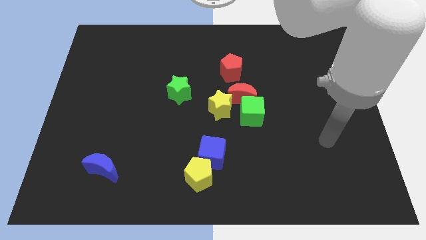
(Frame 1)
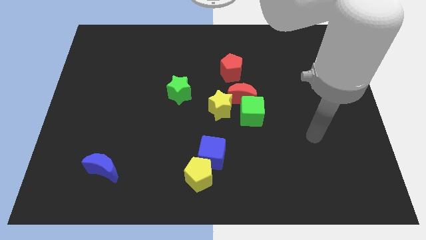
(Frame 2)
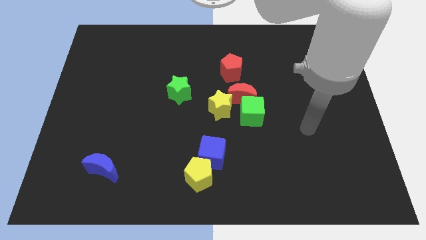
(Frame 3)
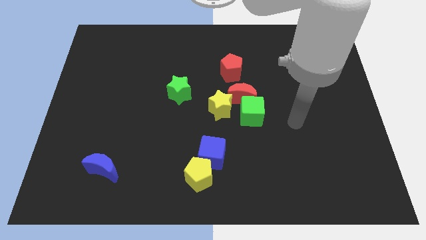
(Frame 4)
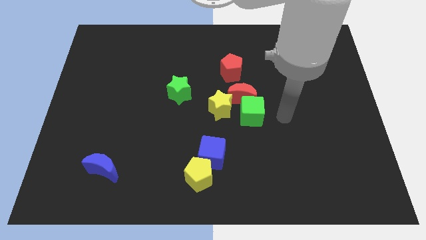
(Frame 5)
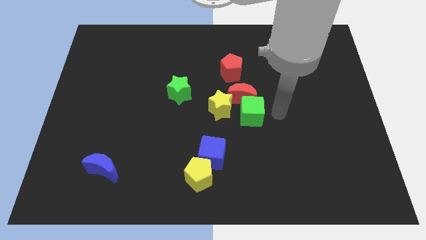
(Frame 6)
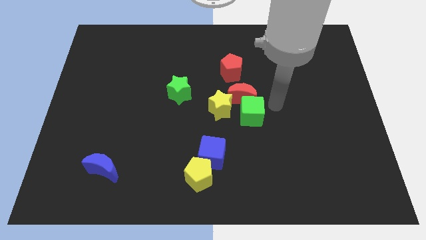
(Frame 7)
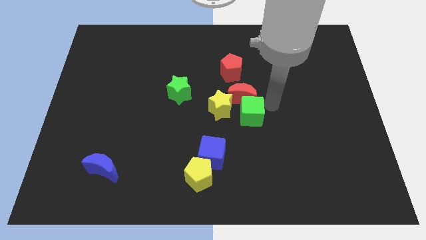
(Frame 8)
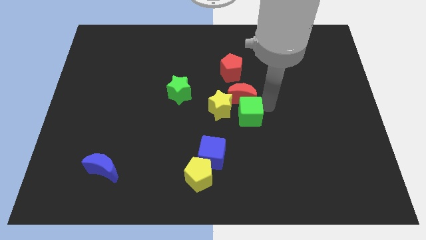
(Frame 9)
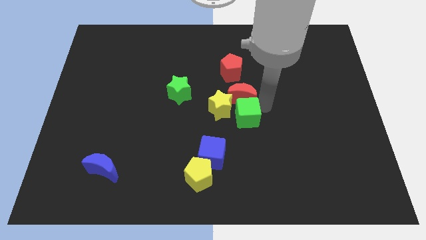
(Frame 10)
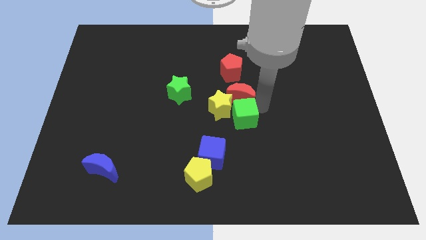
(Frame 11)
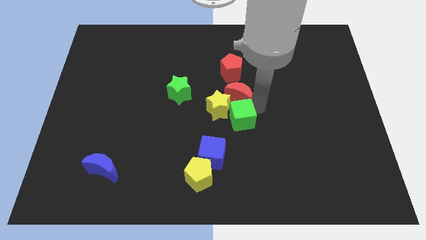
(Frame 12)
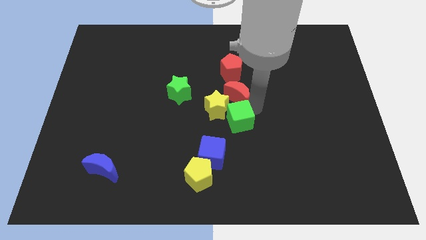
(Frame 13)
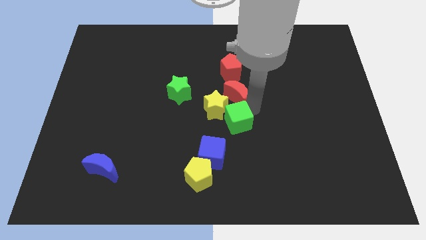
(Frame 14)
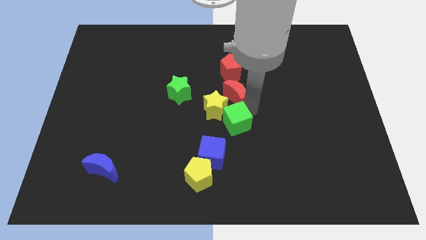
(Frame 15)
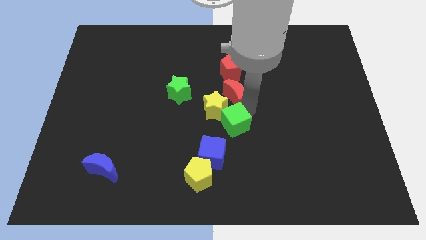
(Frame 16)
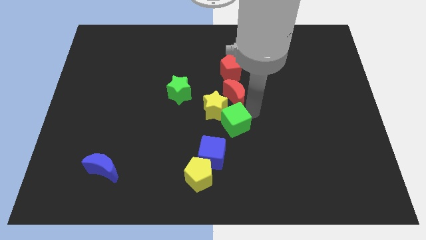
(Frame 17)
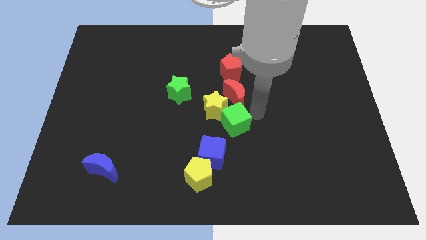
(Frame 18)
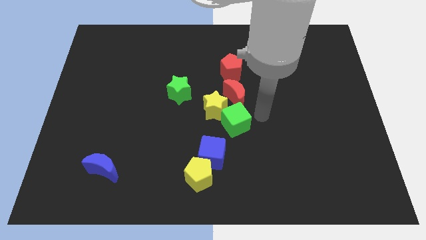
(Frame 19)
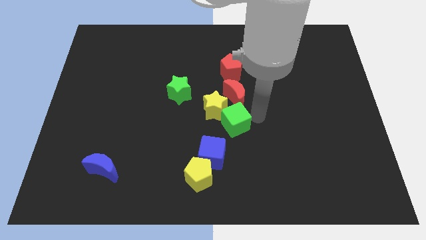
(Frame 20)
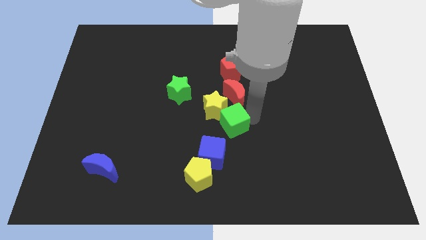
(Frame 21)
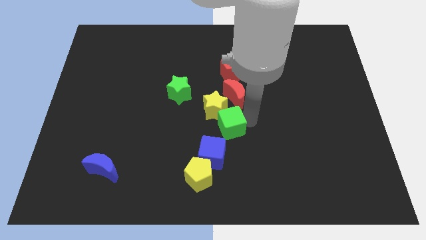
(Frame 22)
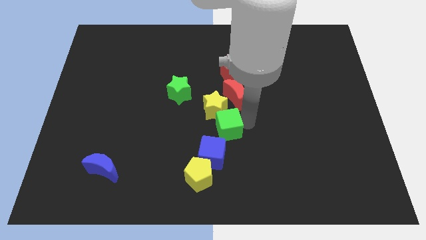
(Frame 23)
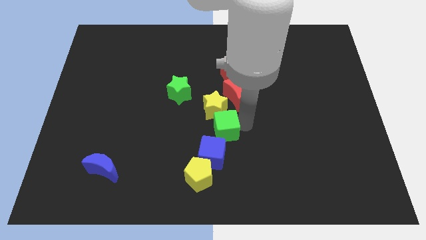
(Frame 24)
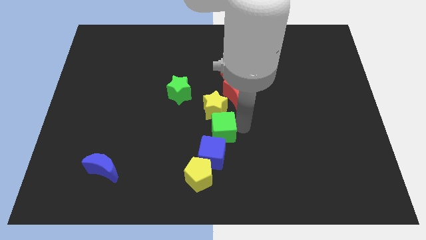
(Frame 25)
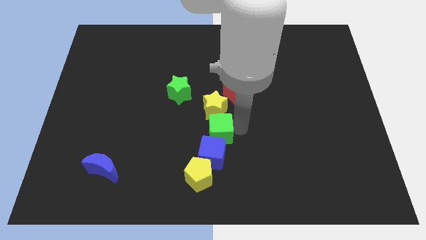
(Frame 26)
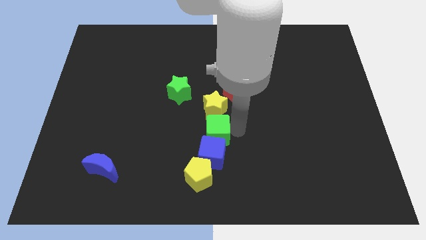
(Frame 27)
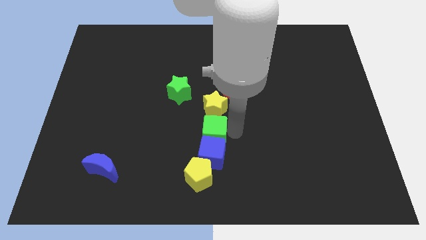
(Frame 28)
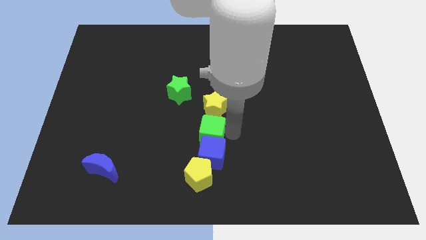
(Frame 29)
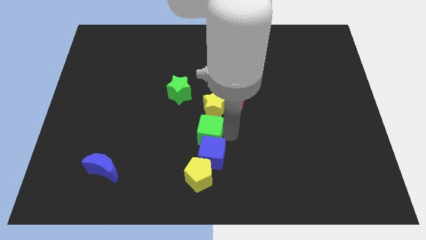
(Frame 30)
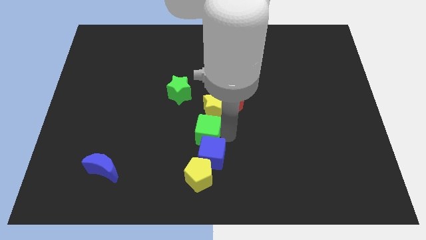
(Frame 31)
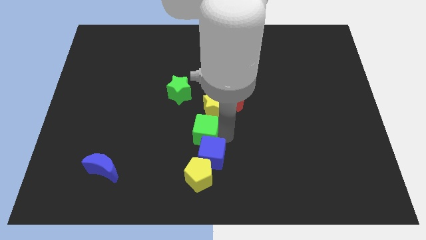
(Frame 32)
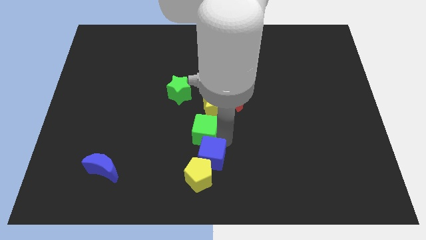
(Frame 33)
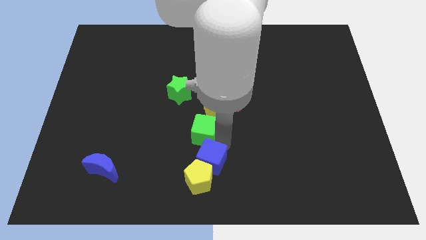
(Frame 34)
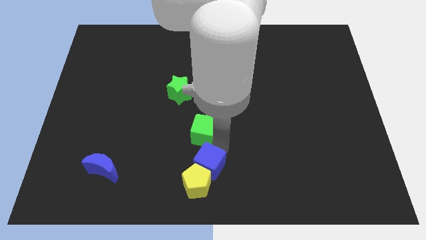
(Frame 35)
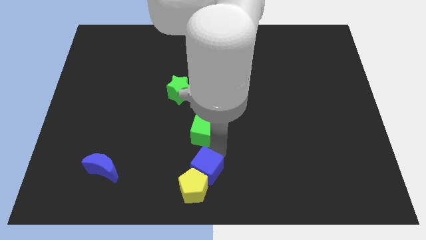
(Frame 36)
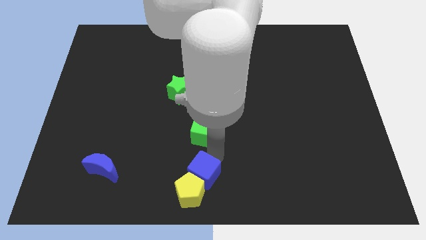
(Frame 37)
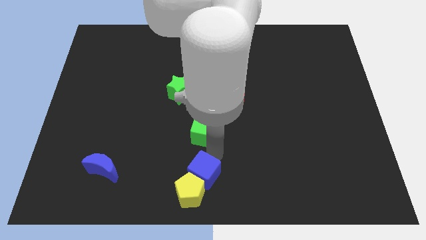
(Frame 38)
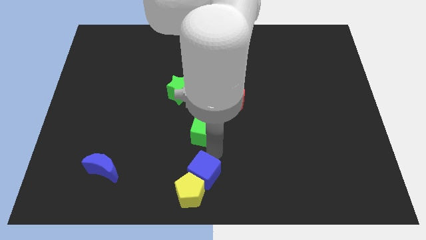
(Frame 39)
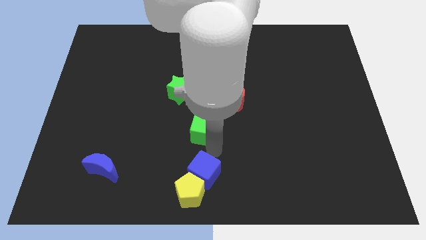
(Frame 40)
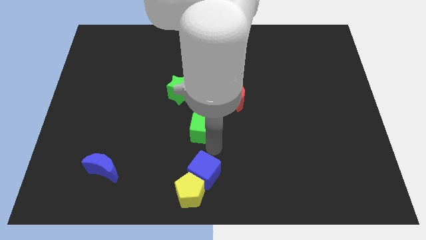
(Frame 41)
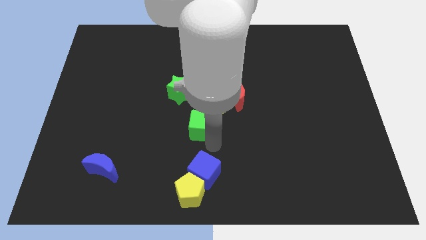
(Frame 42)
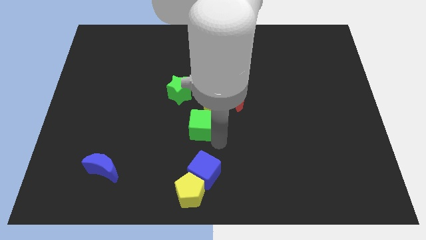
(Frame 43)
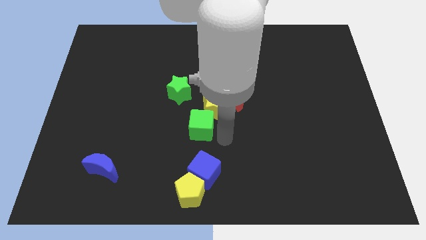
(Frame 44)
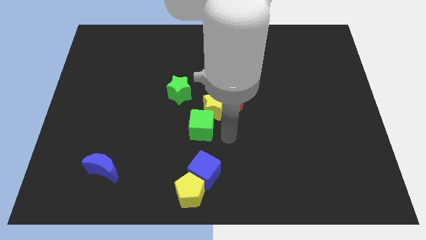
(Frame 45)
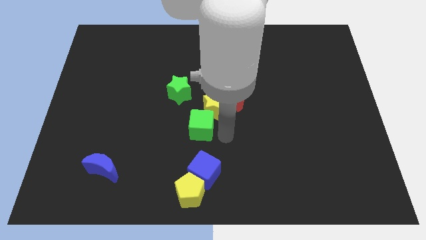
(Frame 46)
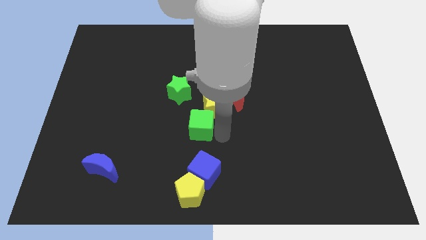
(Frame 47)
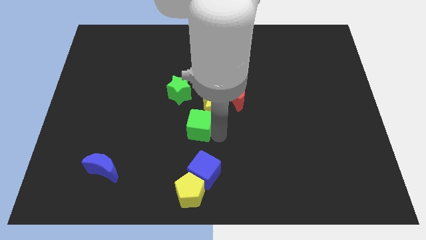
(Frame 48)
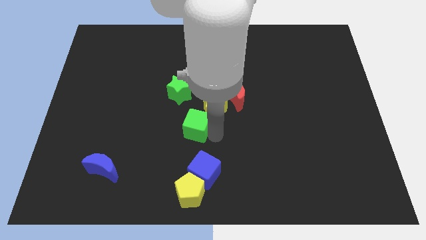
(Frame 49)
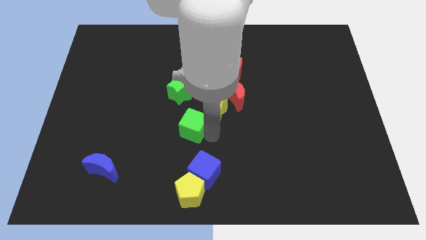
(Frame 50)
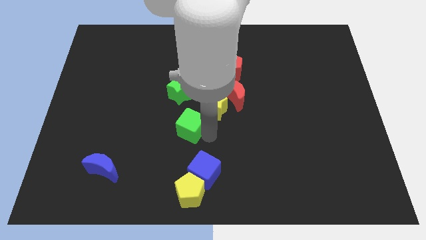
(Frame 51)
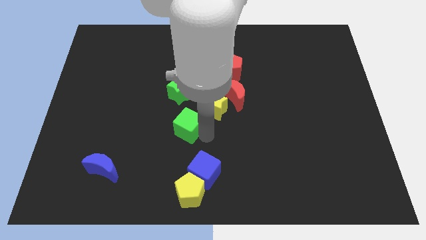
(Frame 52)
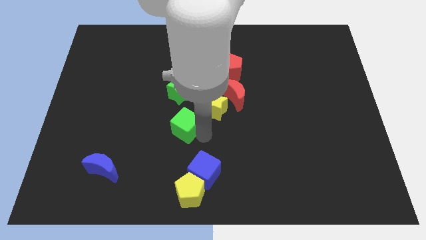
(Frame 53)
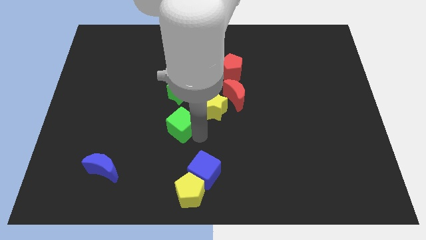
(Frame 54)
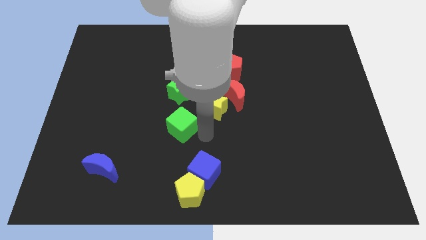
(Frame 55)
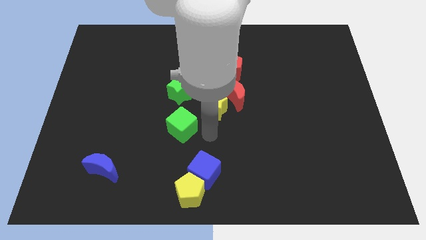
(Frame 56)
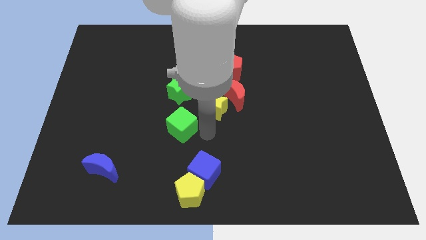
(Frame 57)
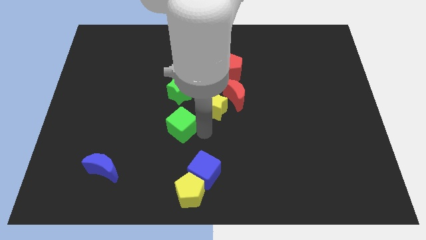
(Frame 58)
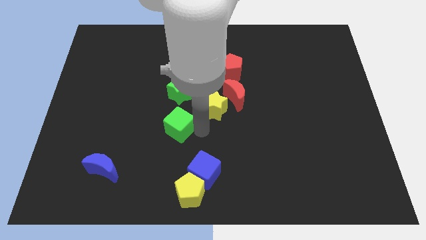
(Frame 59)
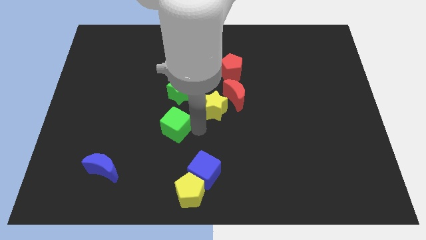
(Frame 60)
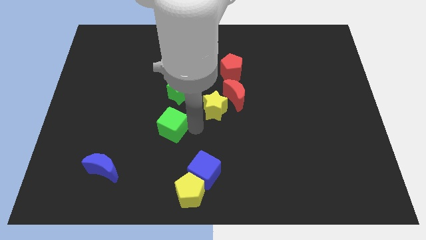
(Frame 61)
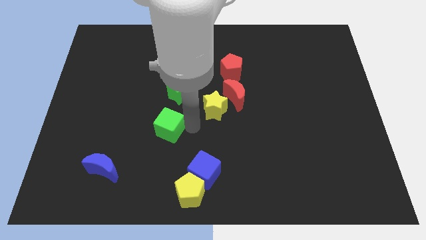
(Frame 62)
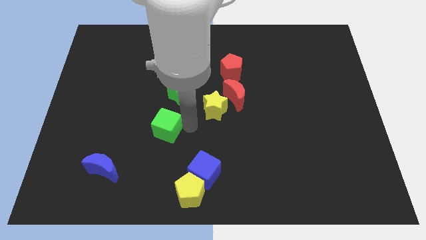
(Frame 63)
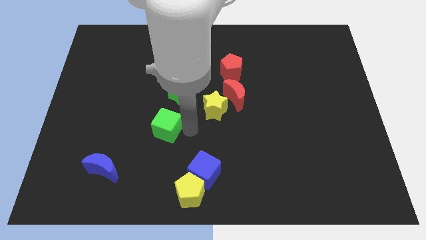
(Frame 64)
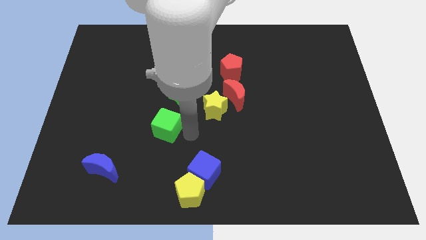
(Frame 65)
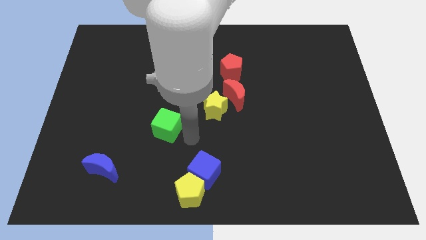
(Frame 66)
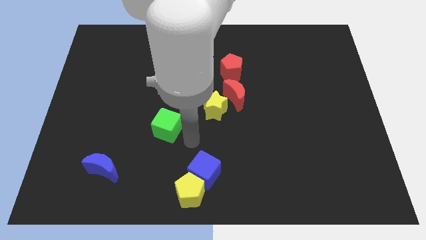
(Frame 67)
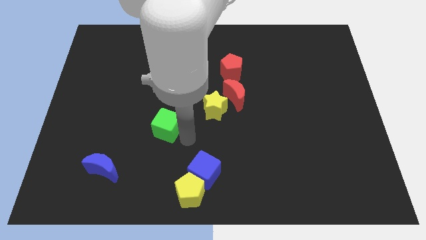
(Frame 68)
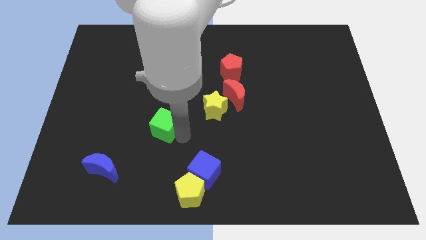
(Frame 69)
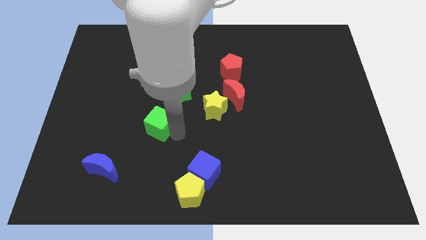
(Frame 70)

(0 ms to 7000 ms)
push the green cube to the left

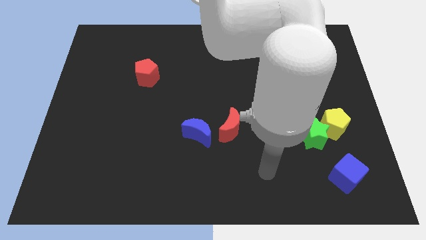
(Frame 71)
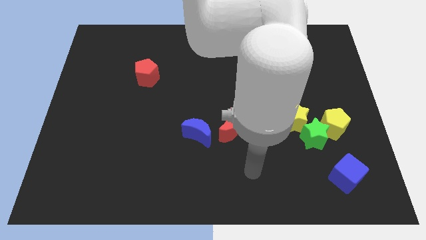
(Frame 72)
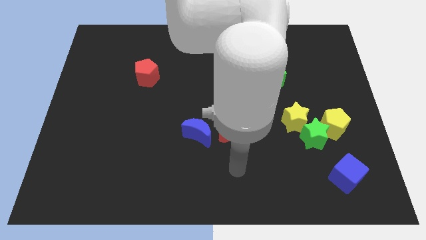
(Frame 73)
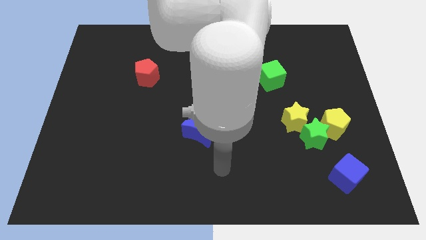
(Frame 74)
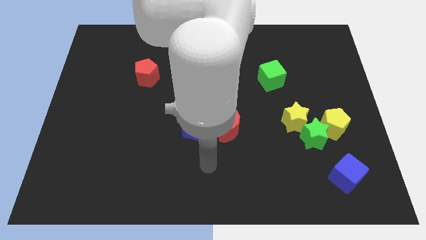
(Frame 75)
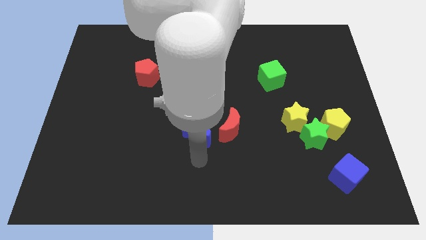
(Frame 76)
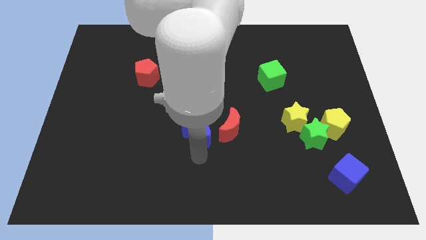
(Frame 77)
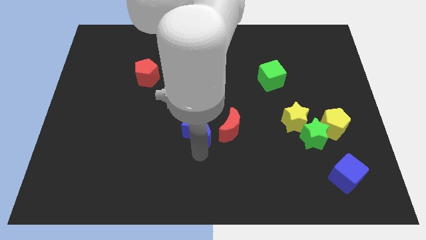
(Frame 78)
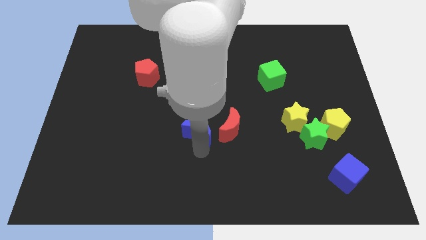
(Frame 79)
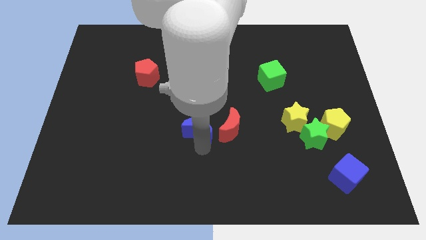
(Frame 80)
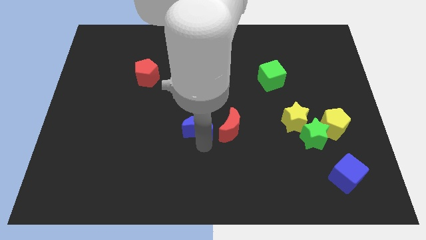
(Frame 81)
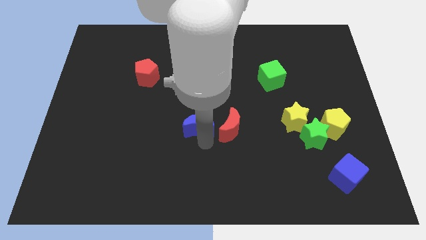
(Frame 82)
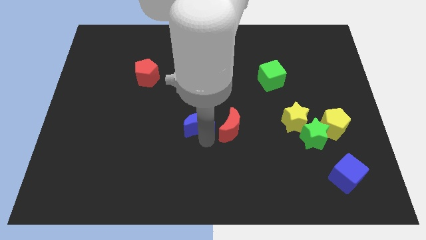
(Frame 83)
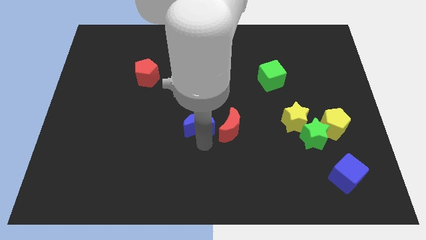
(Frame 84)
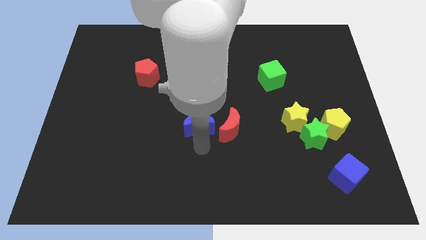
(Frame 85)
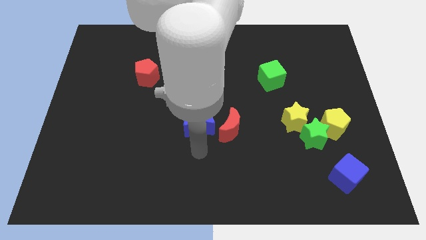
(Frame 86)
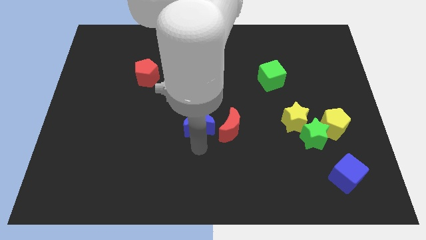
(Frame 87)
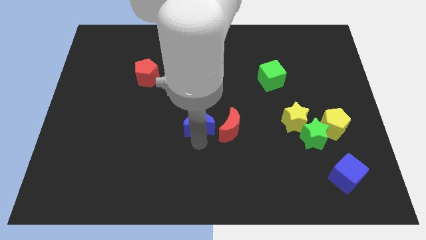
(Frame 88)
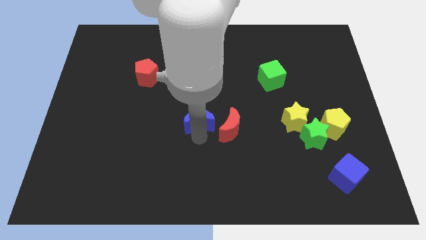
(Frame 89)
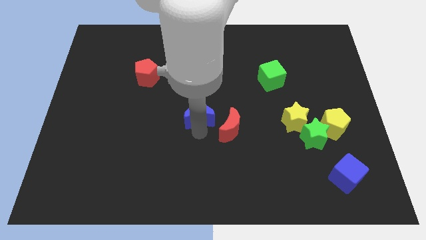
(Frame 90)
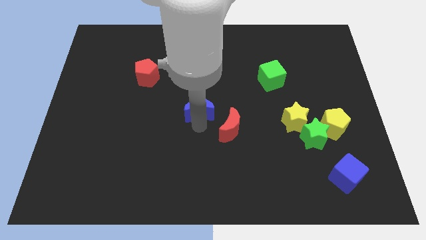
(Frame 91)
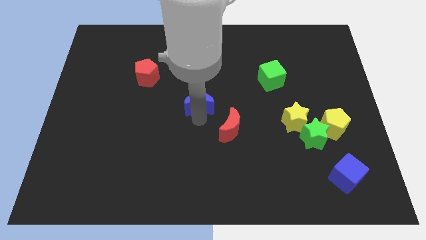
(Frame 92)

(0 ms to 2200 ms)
slightly push the blue moon upwards
